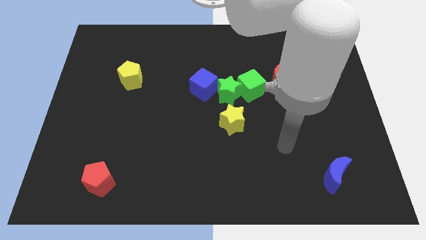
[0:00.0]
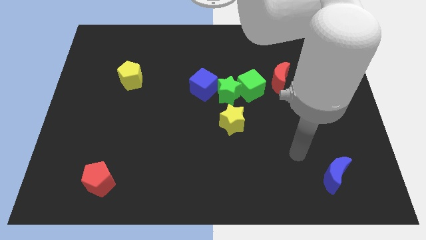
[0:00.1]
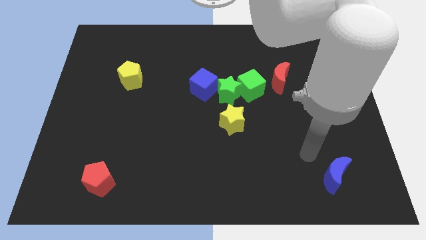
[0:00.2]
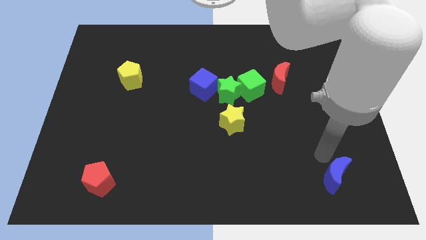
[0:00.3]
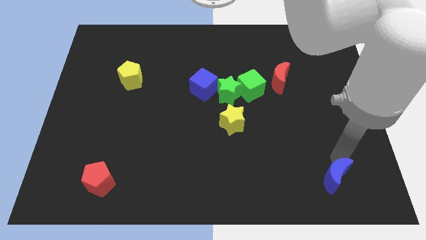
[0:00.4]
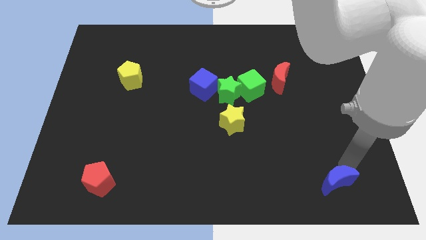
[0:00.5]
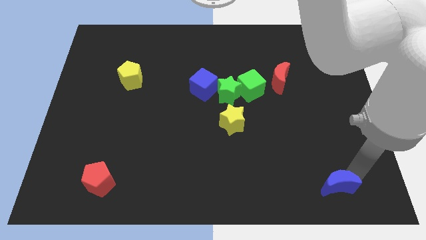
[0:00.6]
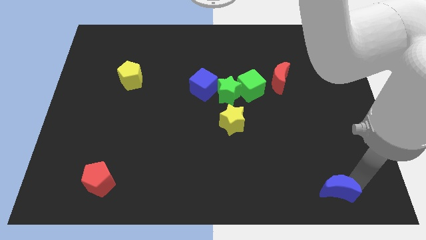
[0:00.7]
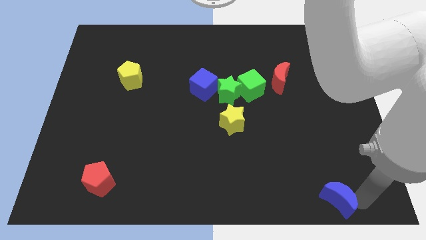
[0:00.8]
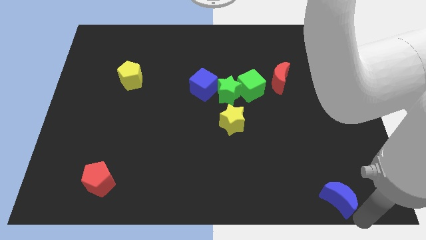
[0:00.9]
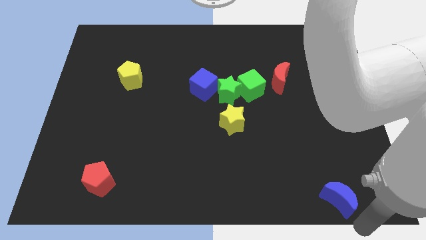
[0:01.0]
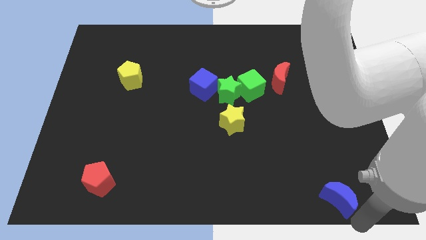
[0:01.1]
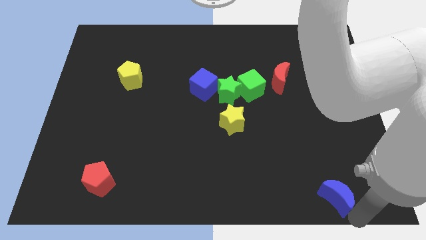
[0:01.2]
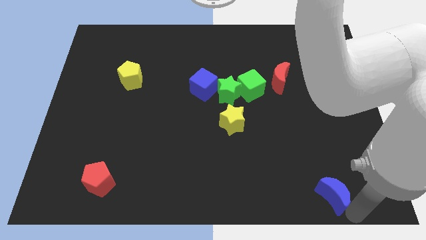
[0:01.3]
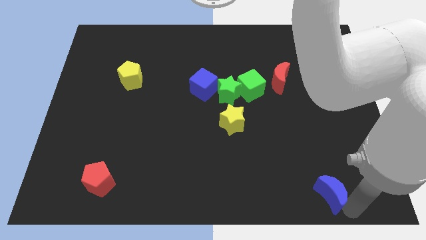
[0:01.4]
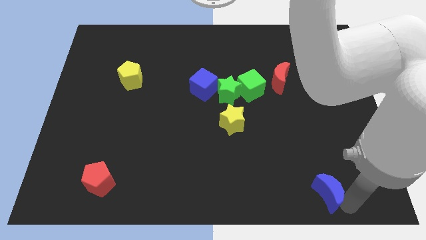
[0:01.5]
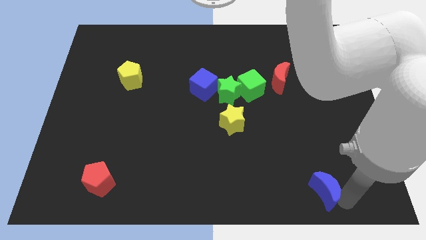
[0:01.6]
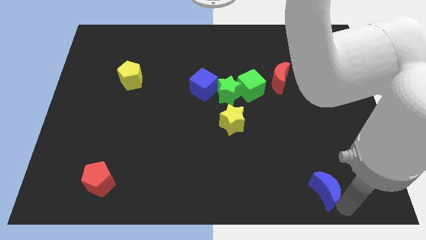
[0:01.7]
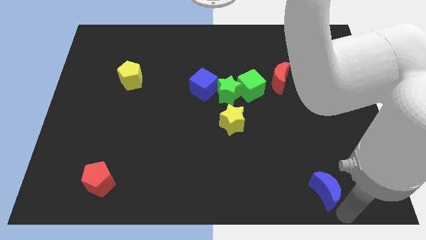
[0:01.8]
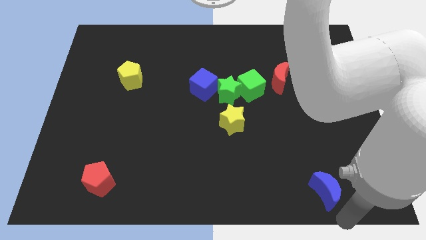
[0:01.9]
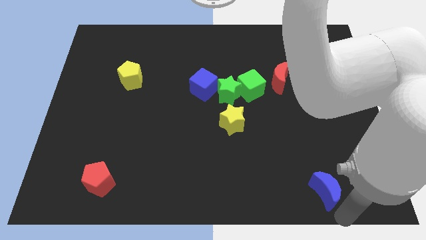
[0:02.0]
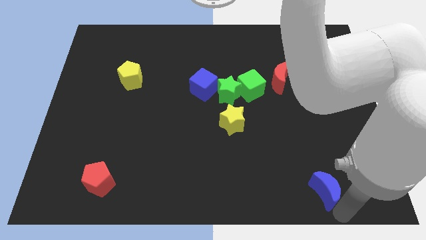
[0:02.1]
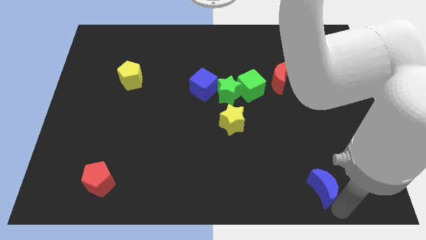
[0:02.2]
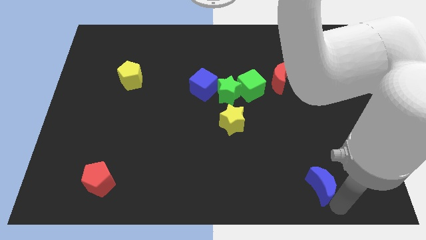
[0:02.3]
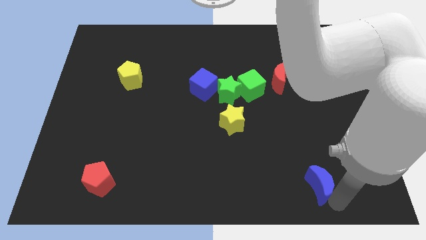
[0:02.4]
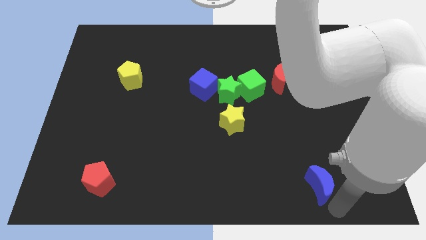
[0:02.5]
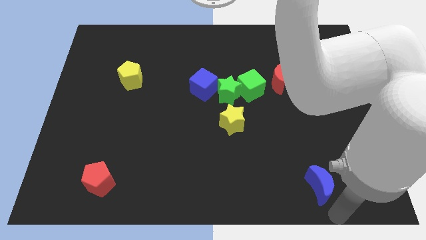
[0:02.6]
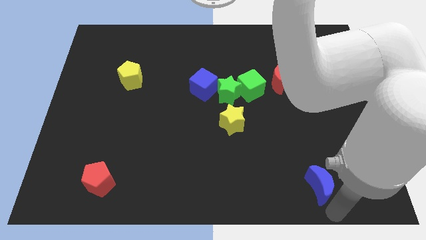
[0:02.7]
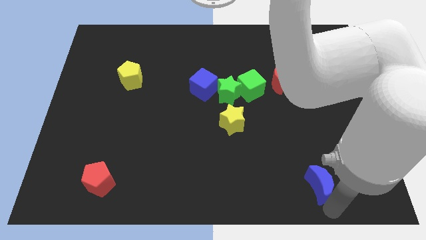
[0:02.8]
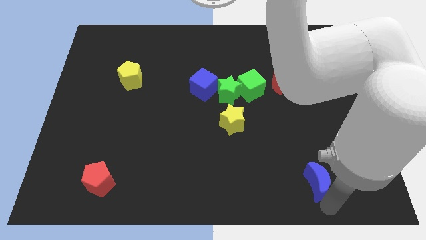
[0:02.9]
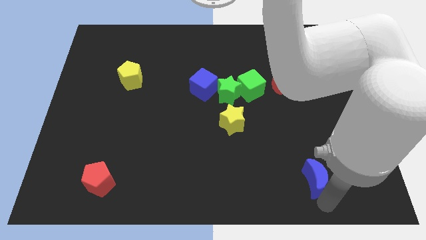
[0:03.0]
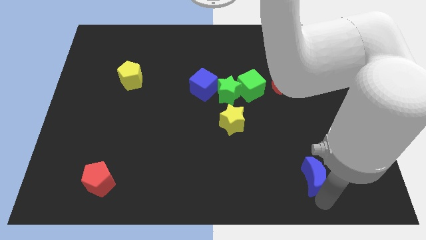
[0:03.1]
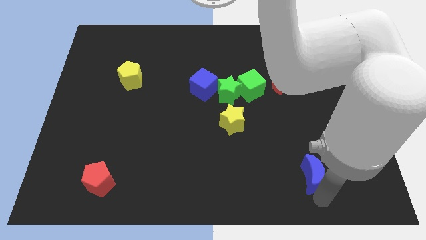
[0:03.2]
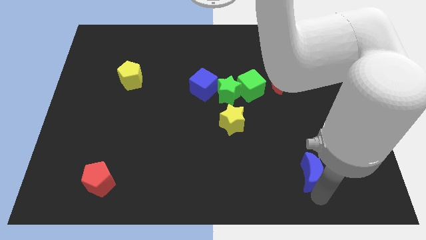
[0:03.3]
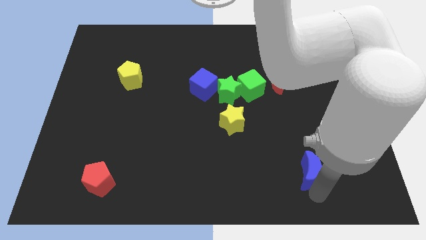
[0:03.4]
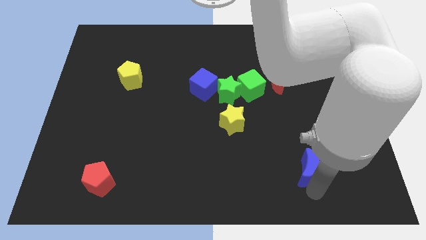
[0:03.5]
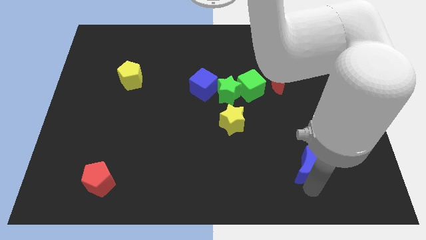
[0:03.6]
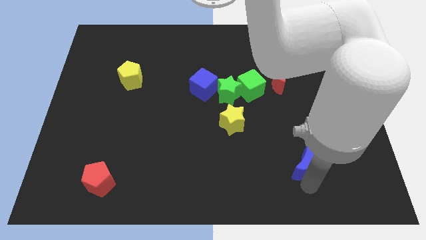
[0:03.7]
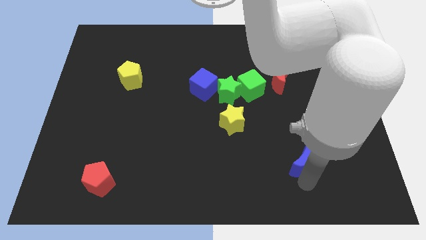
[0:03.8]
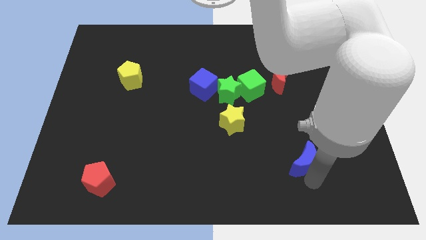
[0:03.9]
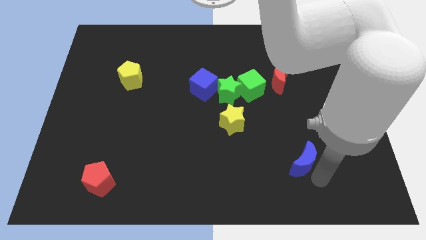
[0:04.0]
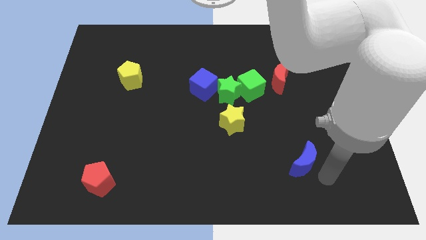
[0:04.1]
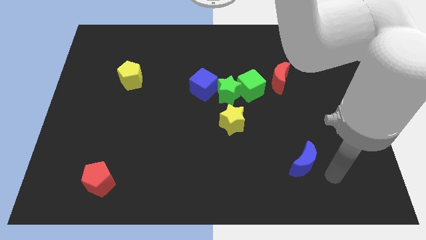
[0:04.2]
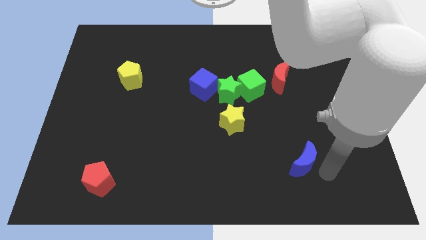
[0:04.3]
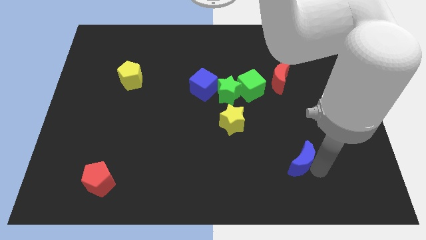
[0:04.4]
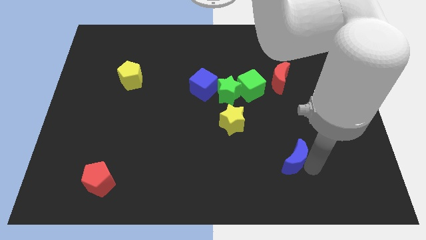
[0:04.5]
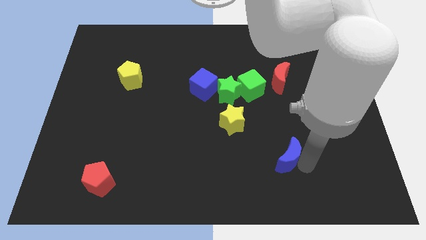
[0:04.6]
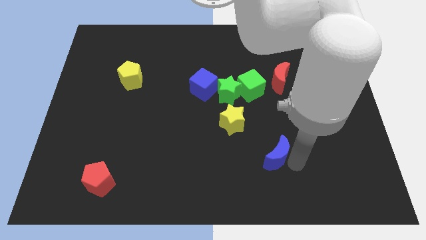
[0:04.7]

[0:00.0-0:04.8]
push the blue moon to the bottom right side of the yellow star

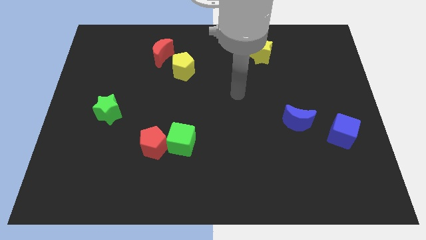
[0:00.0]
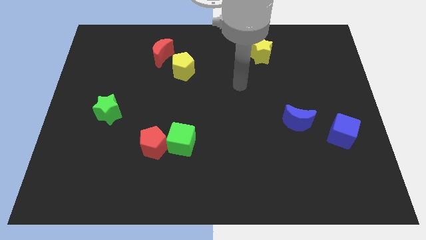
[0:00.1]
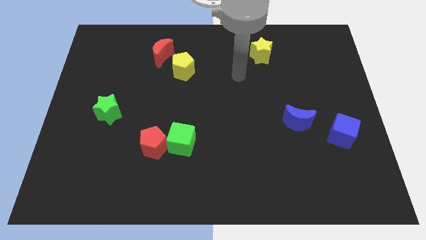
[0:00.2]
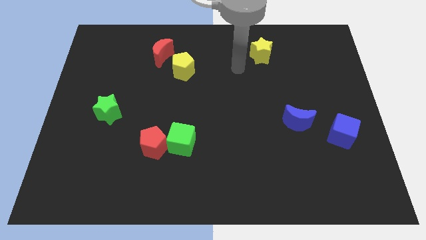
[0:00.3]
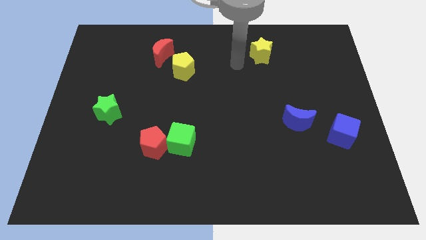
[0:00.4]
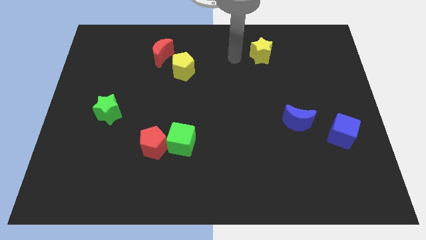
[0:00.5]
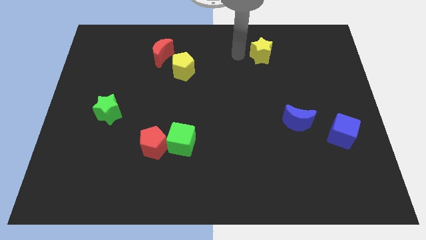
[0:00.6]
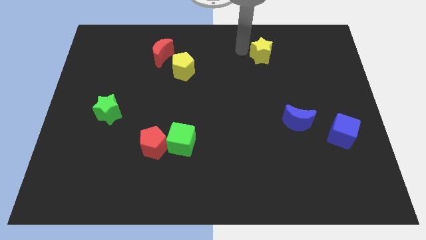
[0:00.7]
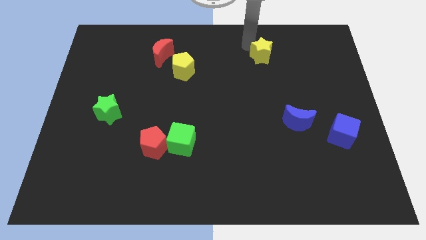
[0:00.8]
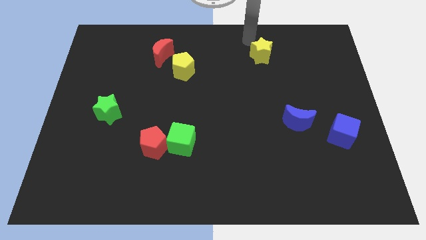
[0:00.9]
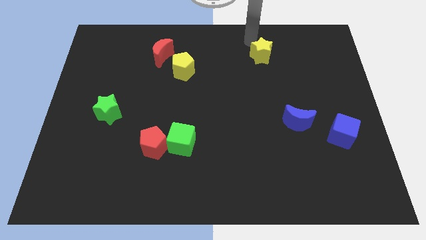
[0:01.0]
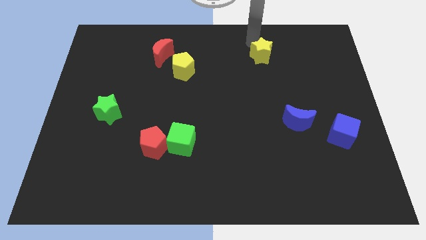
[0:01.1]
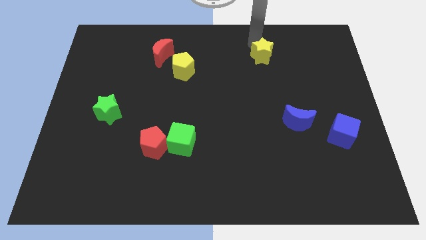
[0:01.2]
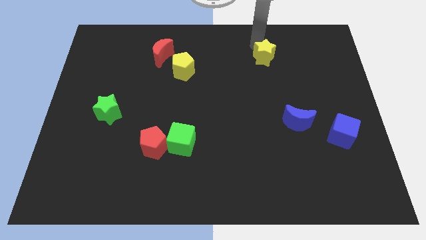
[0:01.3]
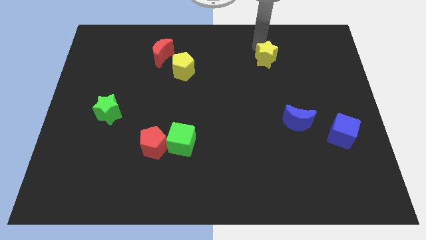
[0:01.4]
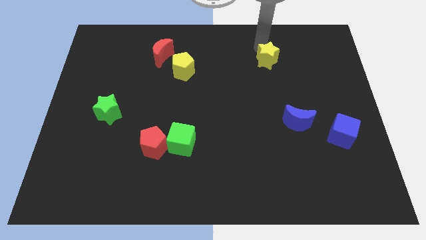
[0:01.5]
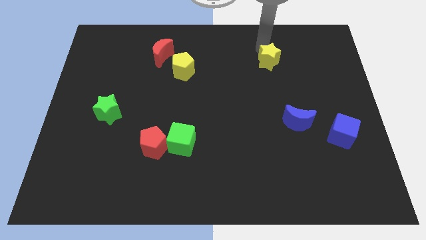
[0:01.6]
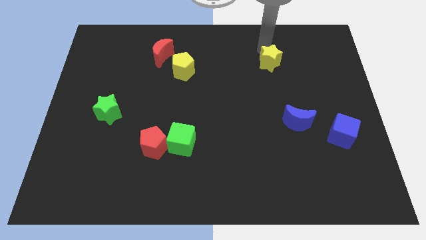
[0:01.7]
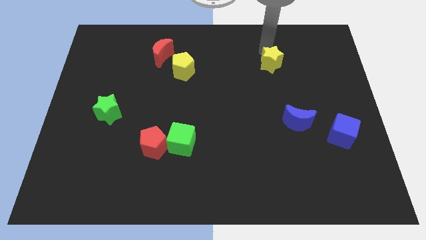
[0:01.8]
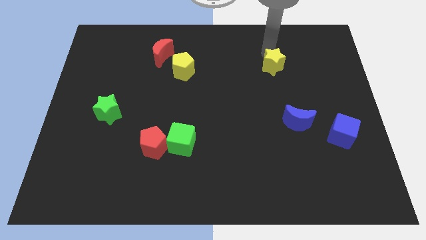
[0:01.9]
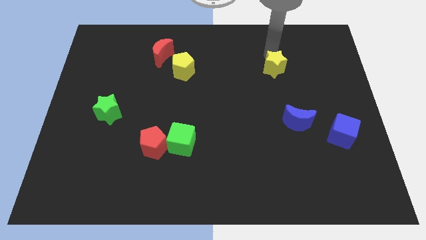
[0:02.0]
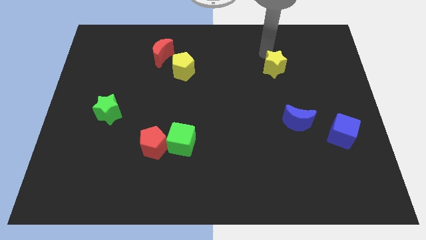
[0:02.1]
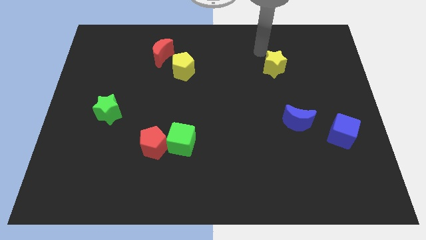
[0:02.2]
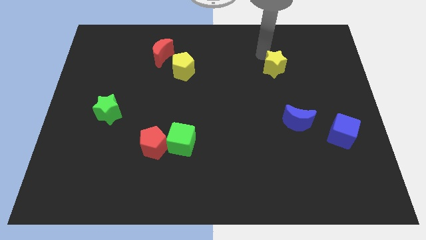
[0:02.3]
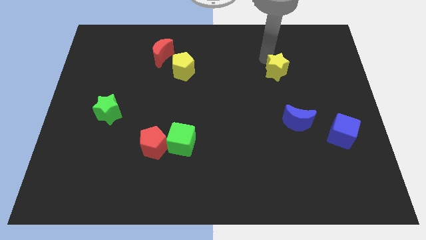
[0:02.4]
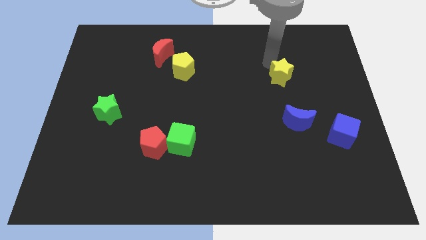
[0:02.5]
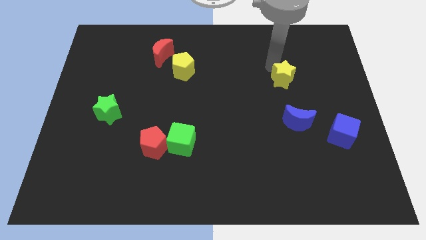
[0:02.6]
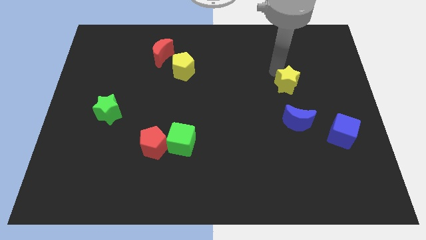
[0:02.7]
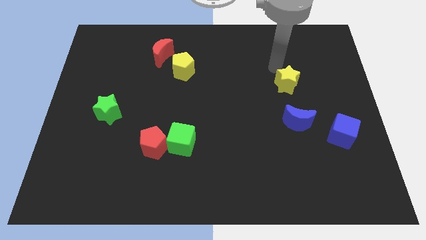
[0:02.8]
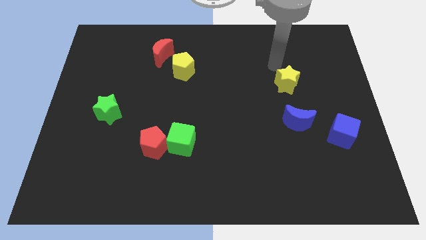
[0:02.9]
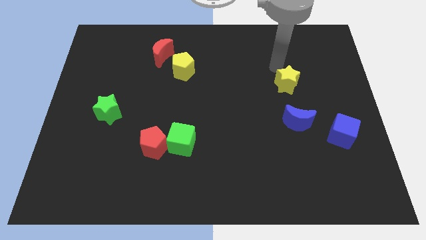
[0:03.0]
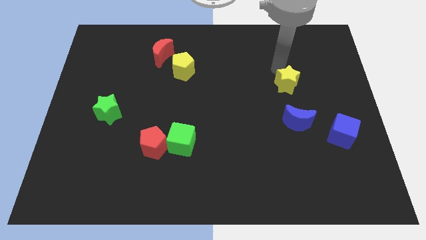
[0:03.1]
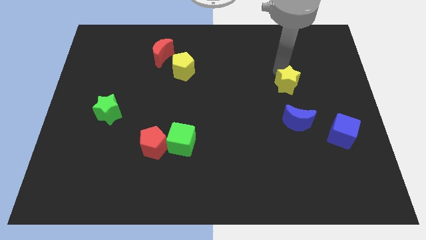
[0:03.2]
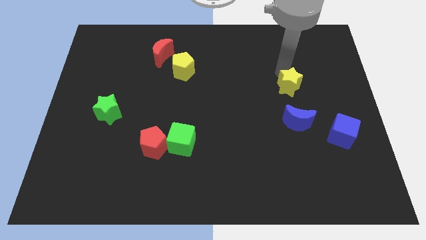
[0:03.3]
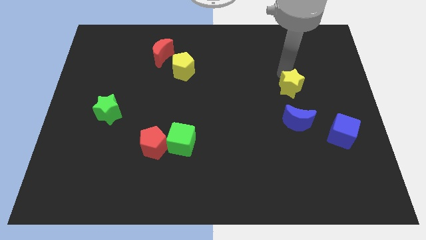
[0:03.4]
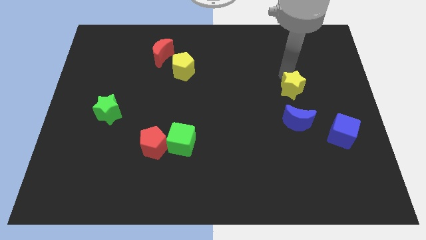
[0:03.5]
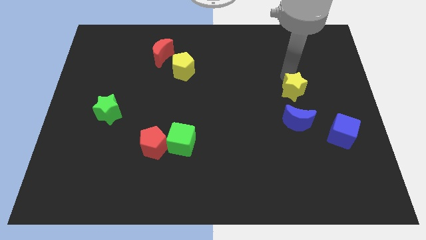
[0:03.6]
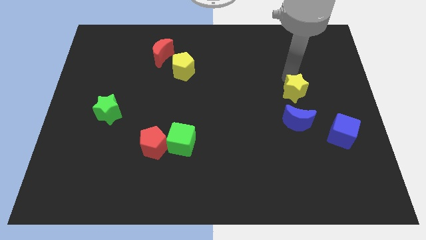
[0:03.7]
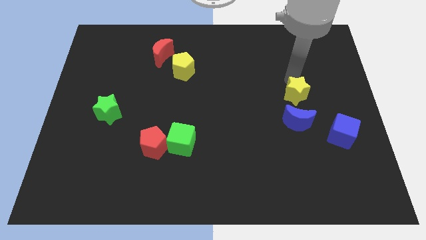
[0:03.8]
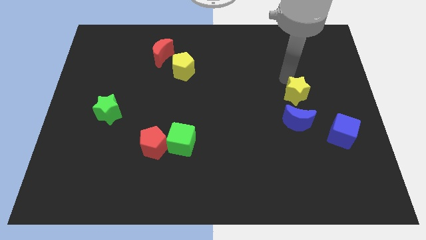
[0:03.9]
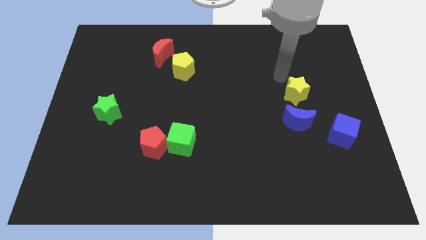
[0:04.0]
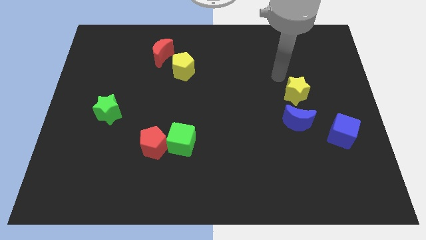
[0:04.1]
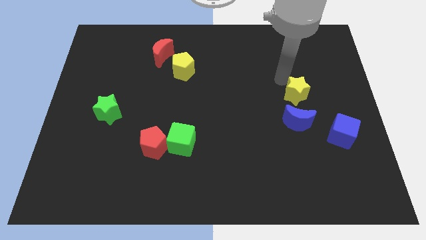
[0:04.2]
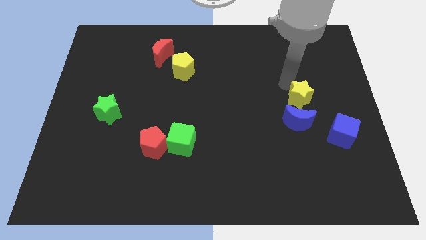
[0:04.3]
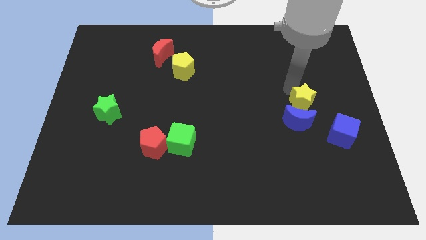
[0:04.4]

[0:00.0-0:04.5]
push the yellow star to the top left of the blue cube
